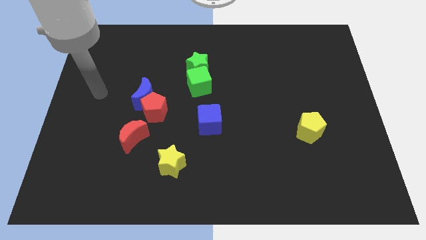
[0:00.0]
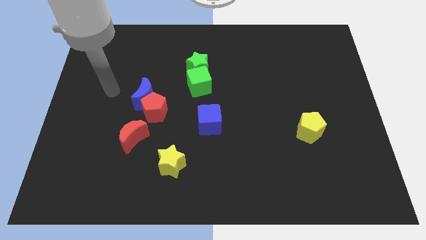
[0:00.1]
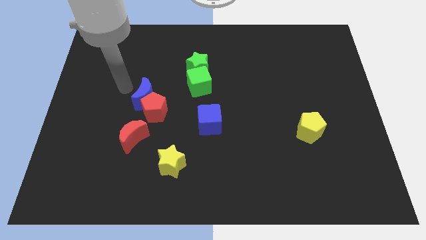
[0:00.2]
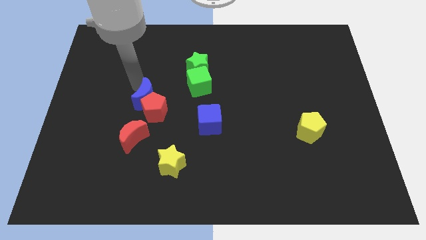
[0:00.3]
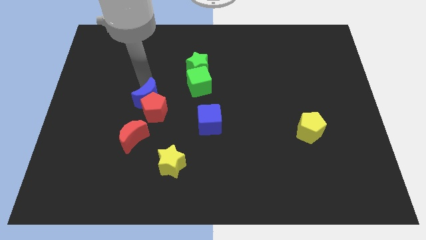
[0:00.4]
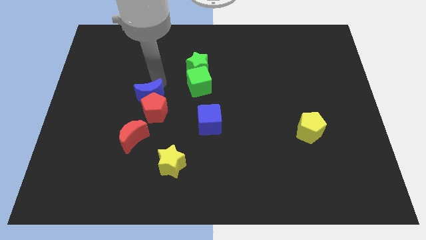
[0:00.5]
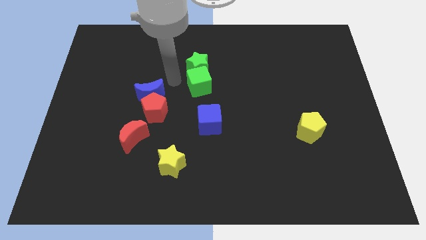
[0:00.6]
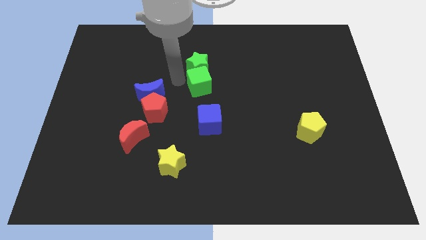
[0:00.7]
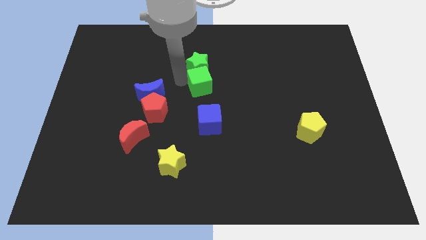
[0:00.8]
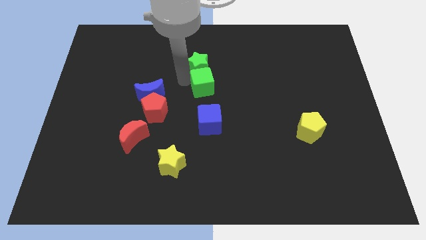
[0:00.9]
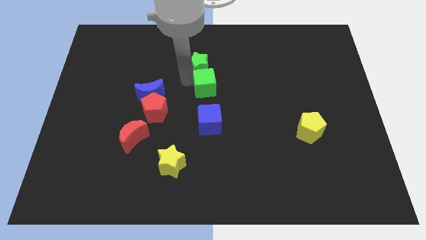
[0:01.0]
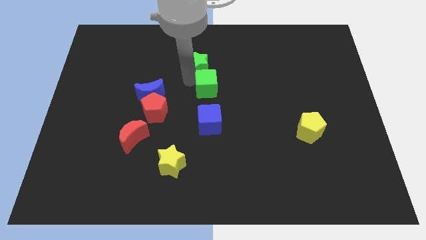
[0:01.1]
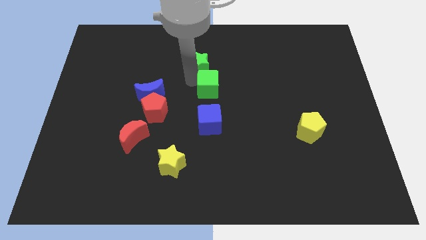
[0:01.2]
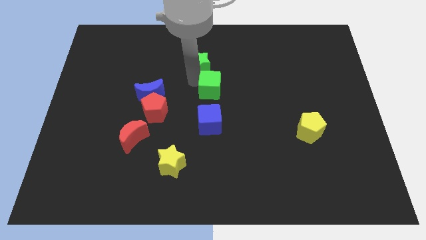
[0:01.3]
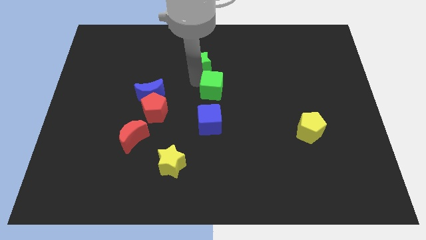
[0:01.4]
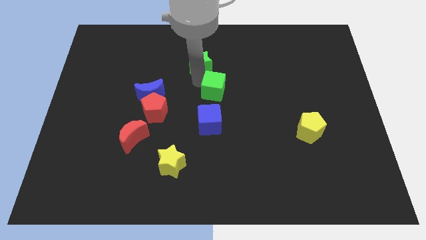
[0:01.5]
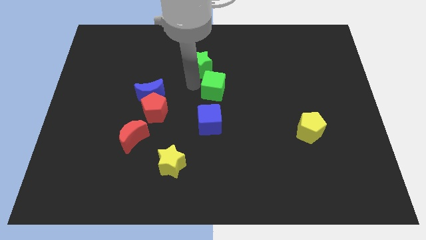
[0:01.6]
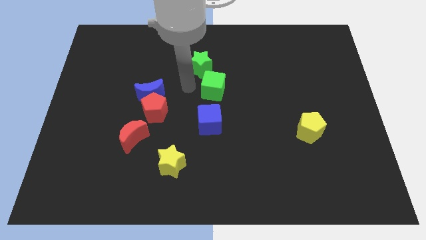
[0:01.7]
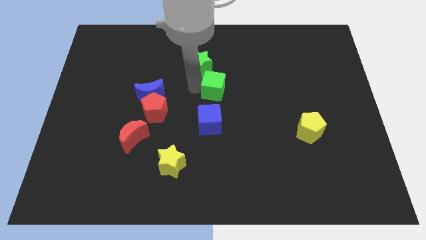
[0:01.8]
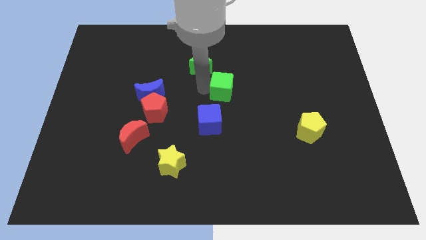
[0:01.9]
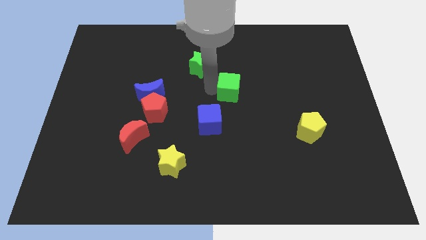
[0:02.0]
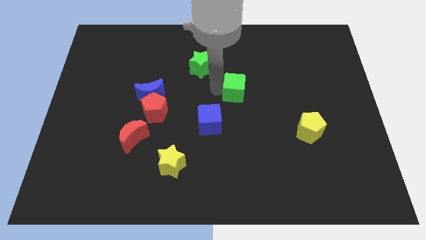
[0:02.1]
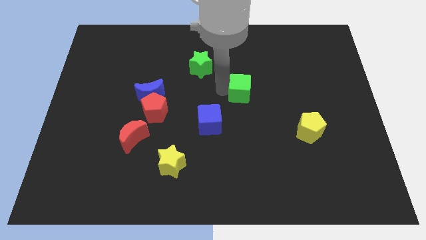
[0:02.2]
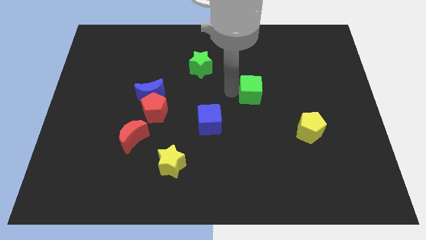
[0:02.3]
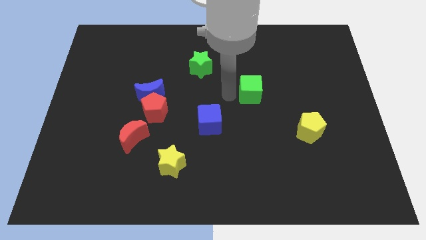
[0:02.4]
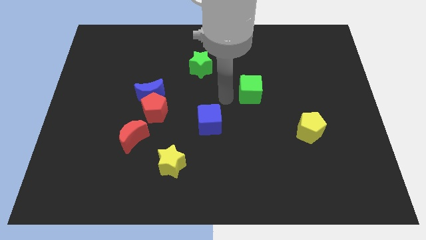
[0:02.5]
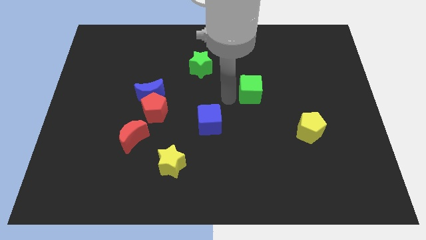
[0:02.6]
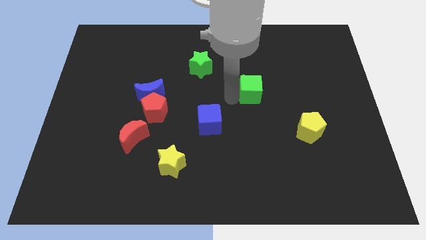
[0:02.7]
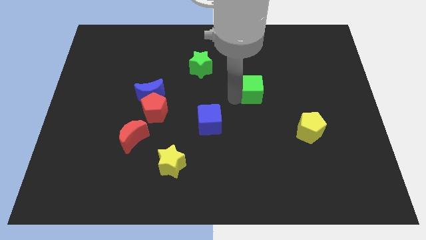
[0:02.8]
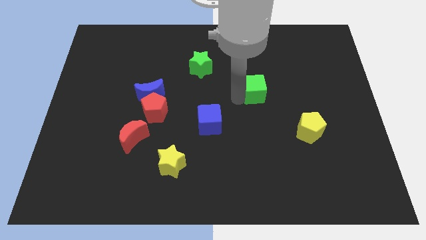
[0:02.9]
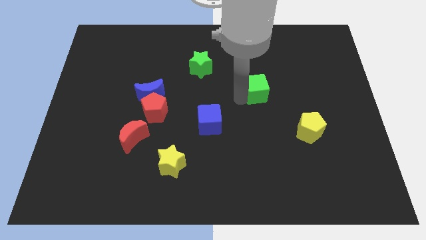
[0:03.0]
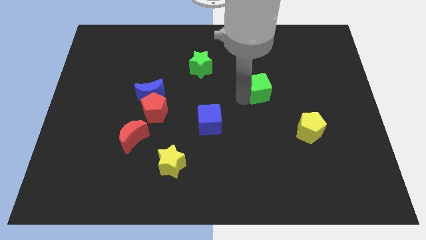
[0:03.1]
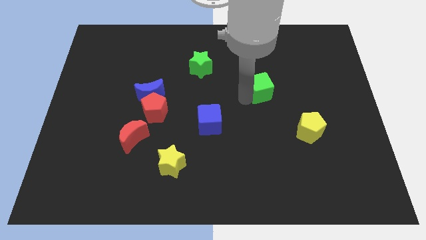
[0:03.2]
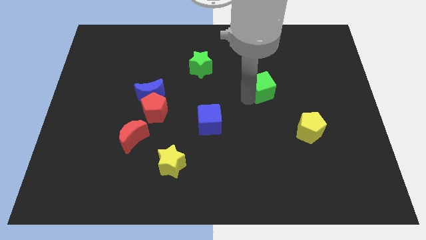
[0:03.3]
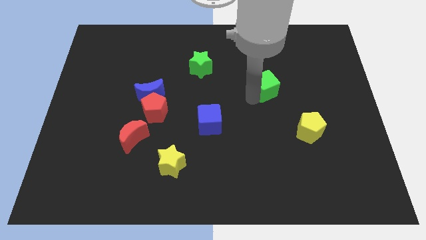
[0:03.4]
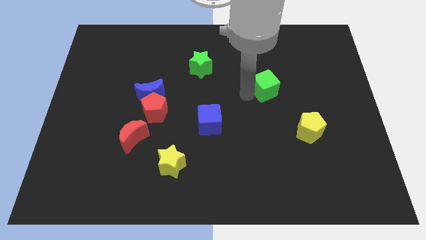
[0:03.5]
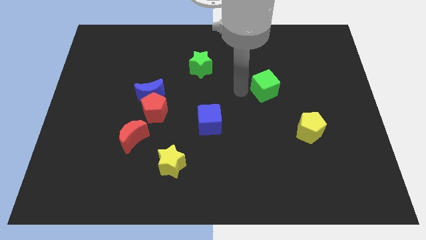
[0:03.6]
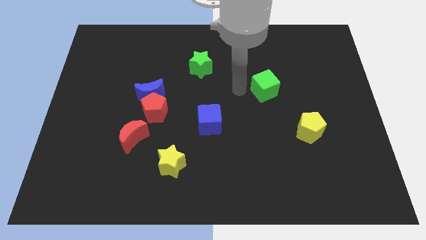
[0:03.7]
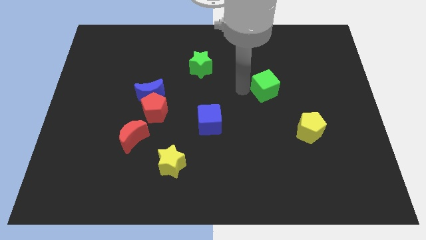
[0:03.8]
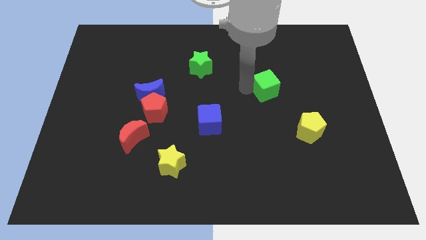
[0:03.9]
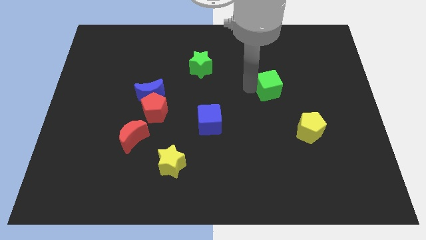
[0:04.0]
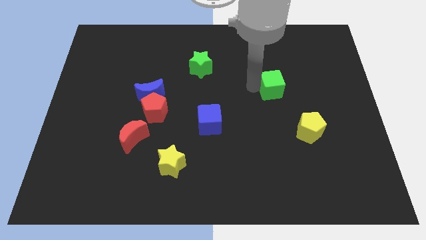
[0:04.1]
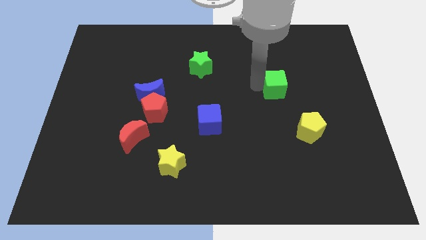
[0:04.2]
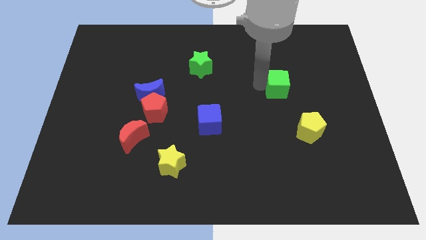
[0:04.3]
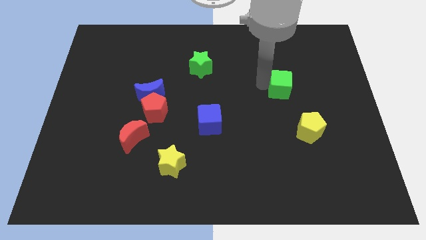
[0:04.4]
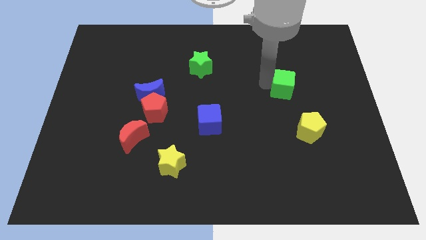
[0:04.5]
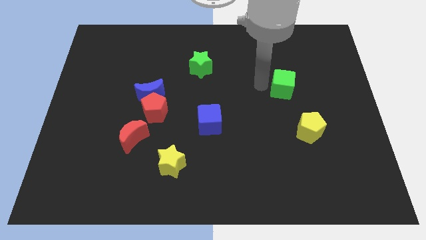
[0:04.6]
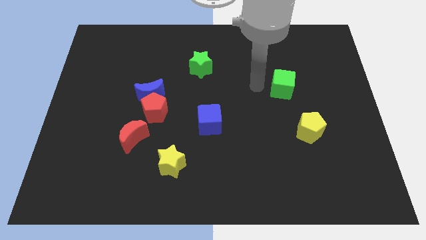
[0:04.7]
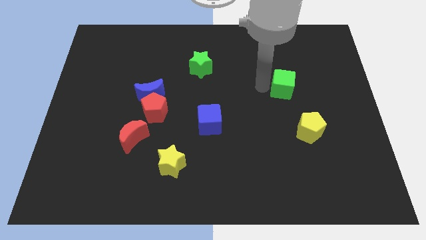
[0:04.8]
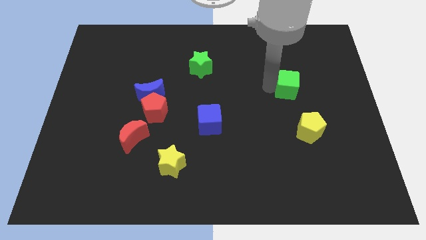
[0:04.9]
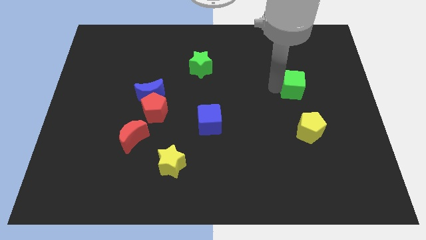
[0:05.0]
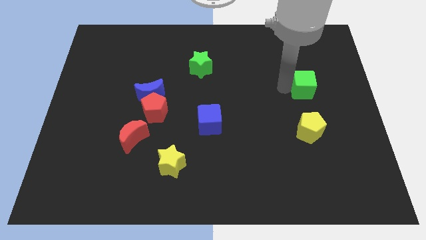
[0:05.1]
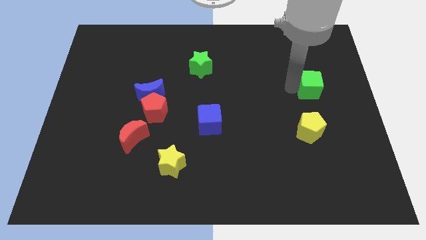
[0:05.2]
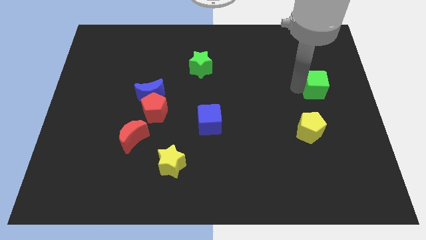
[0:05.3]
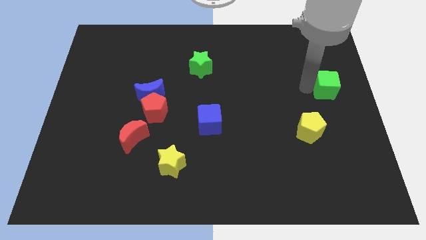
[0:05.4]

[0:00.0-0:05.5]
slide the green cube to the right side

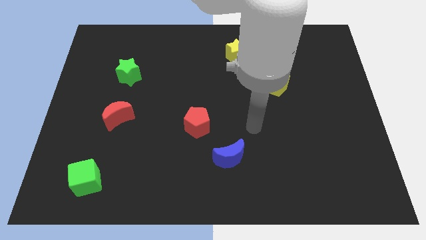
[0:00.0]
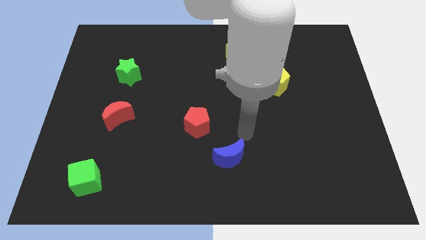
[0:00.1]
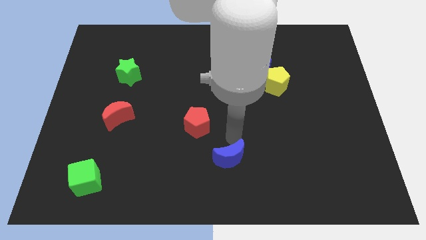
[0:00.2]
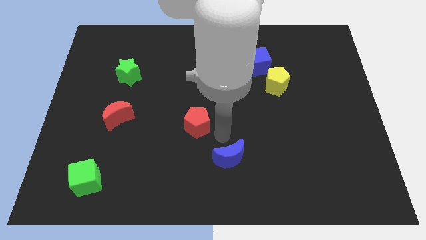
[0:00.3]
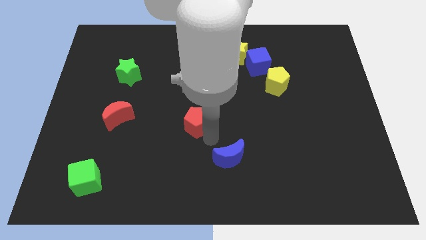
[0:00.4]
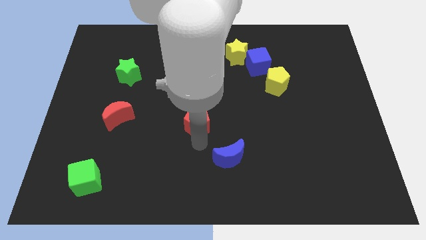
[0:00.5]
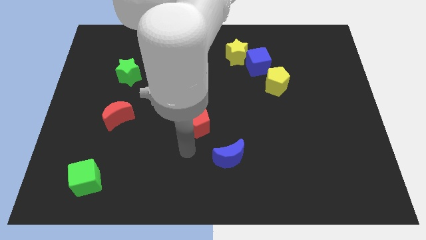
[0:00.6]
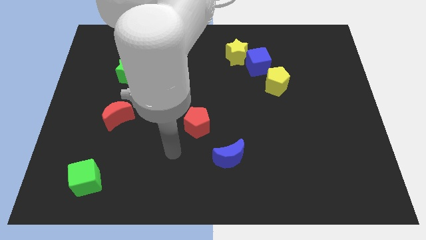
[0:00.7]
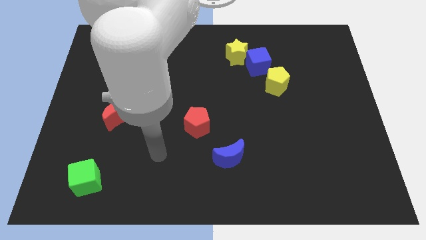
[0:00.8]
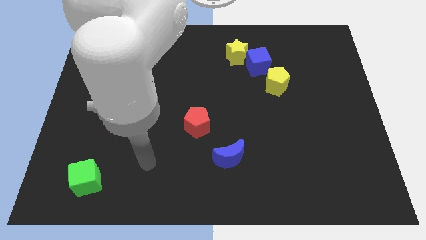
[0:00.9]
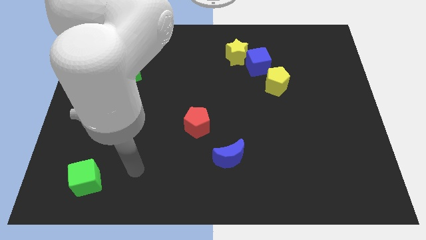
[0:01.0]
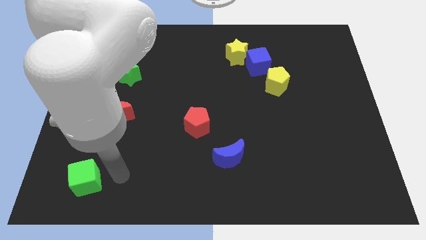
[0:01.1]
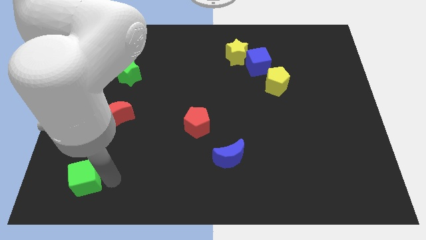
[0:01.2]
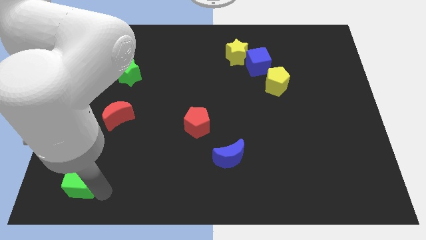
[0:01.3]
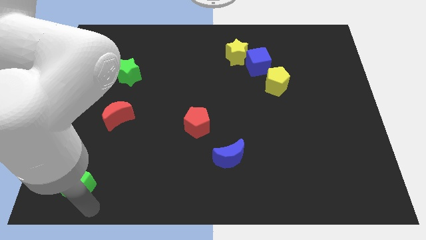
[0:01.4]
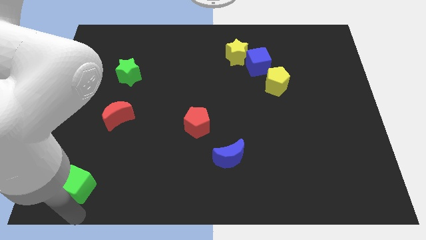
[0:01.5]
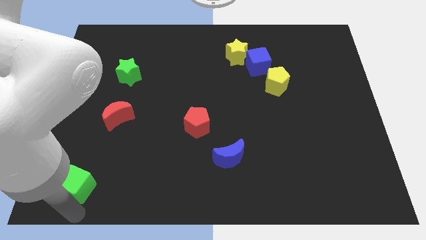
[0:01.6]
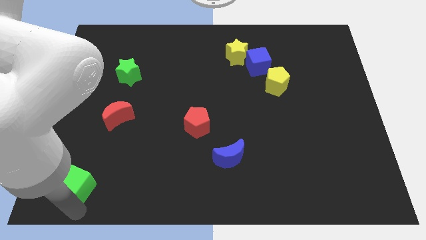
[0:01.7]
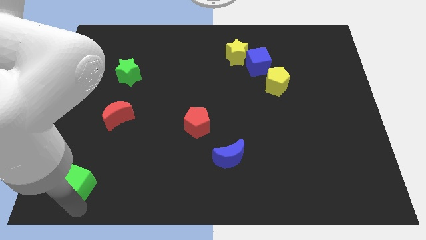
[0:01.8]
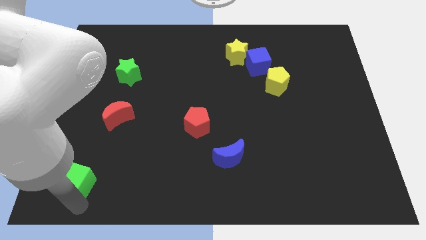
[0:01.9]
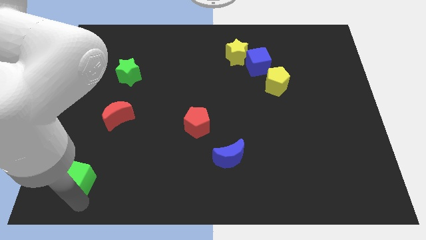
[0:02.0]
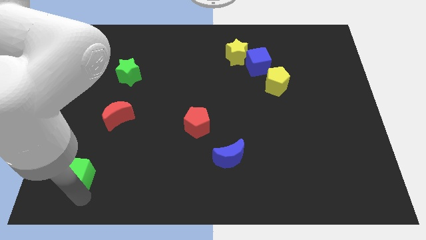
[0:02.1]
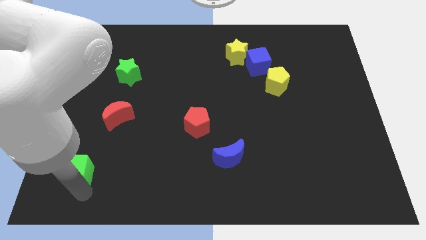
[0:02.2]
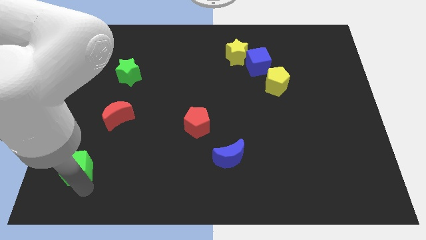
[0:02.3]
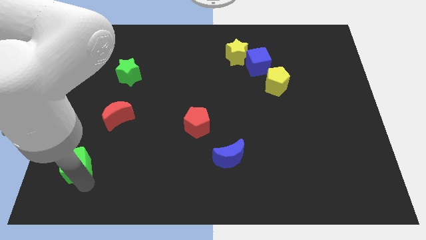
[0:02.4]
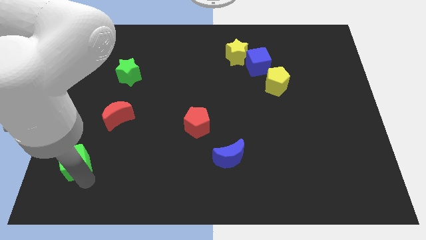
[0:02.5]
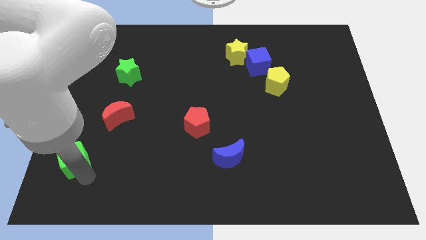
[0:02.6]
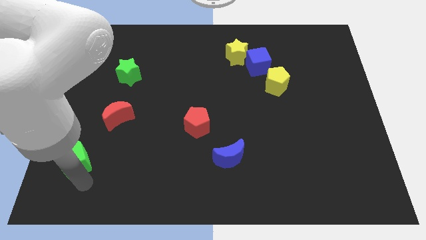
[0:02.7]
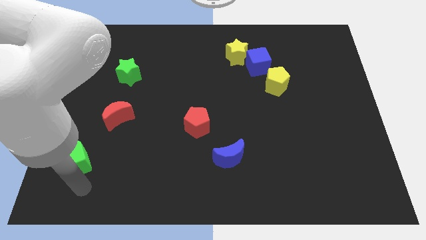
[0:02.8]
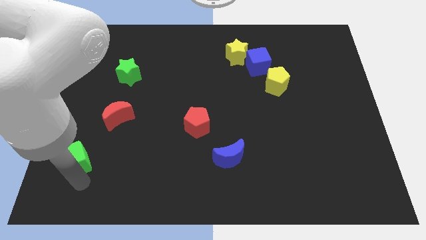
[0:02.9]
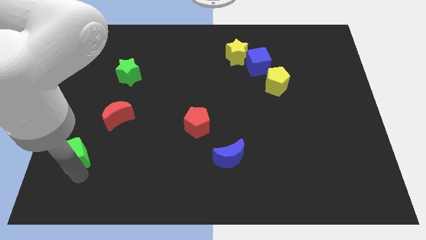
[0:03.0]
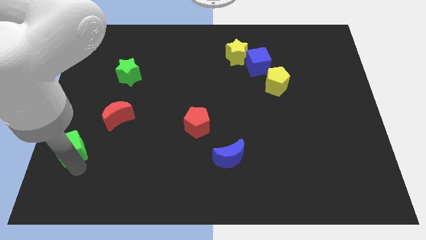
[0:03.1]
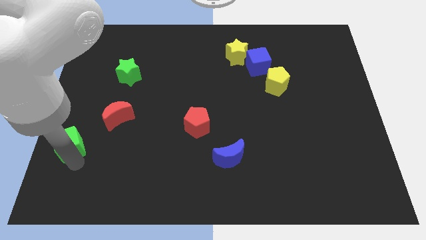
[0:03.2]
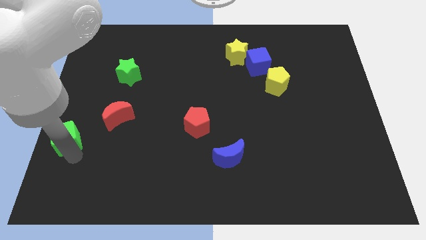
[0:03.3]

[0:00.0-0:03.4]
put the green cube to the center left
